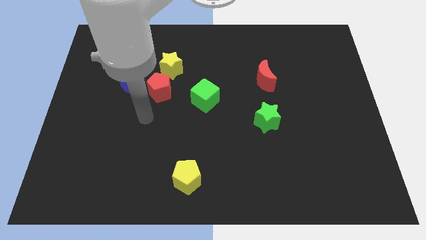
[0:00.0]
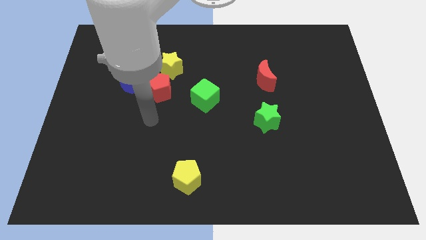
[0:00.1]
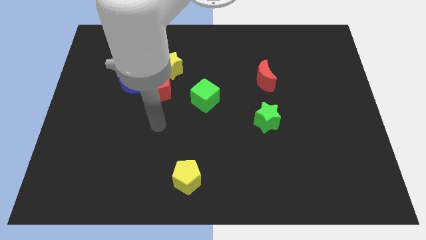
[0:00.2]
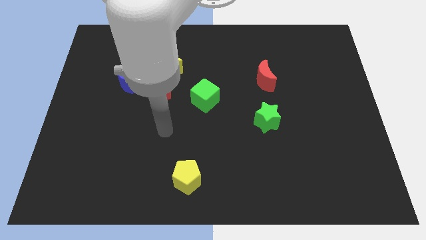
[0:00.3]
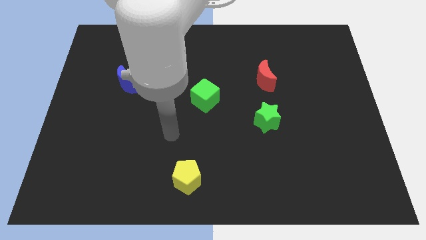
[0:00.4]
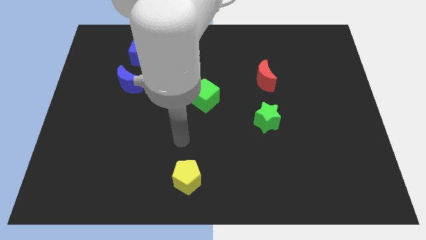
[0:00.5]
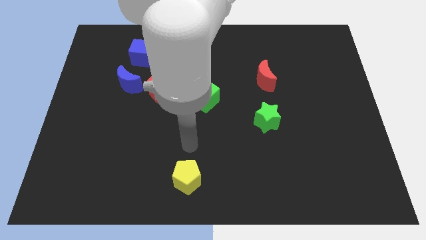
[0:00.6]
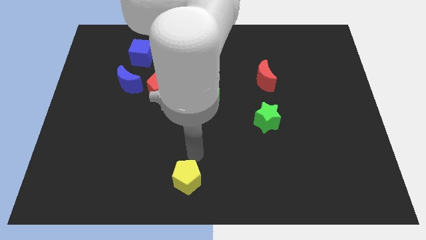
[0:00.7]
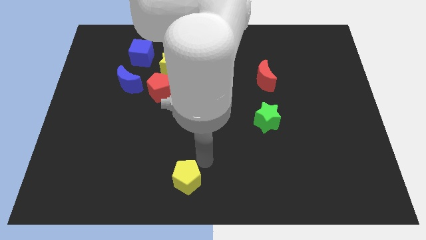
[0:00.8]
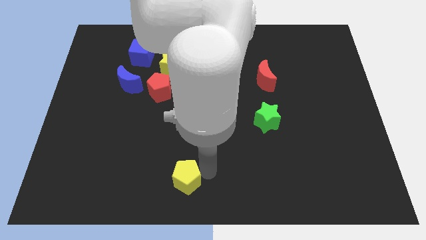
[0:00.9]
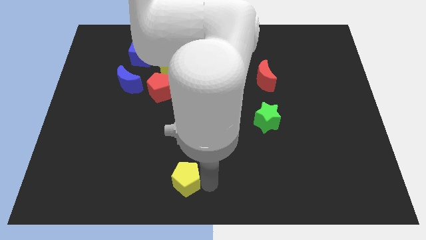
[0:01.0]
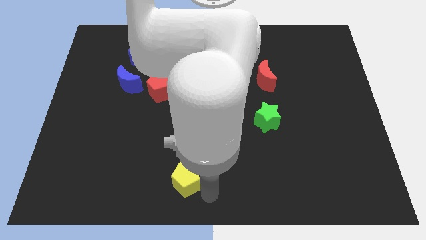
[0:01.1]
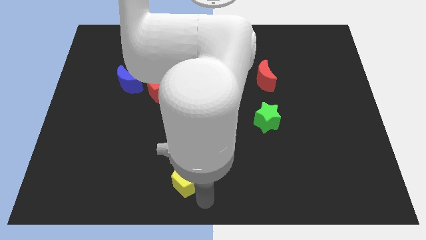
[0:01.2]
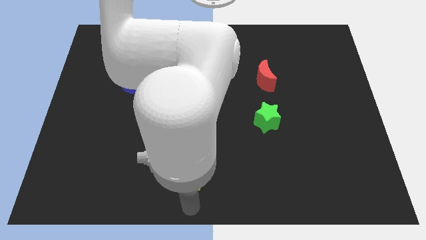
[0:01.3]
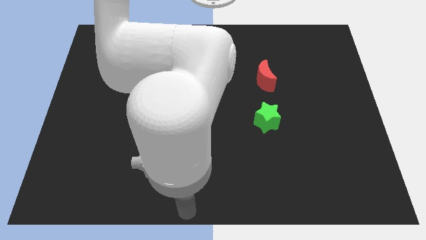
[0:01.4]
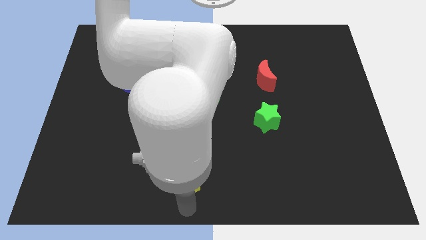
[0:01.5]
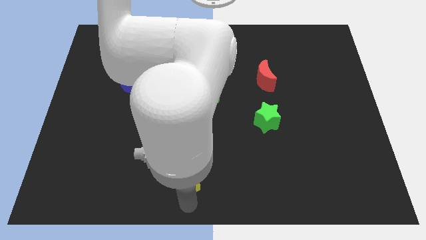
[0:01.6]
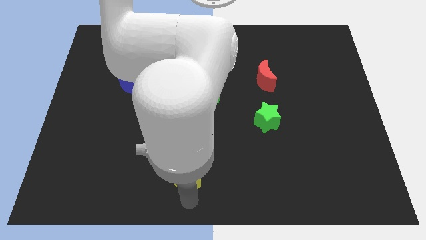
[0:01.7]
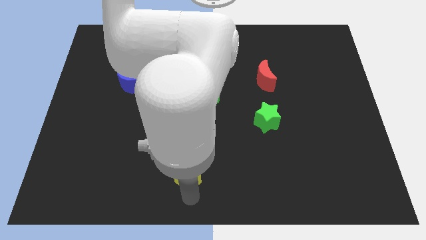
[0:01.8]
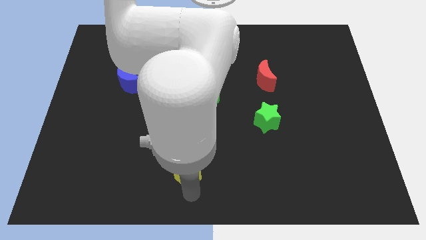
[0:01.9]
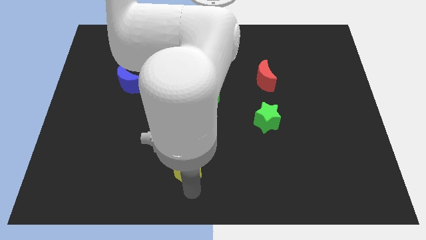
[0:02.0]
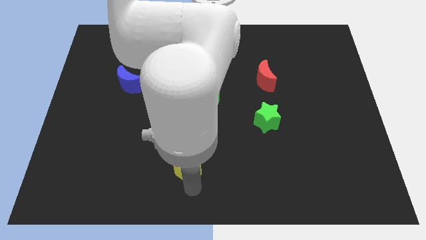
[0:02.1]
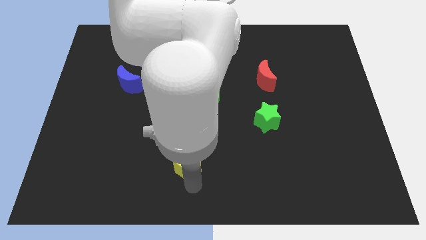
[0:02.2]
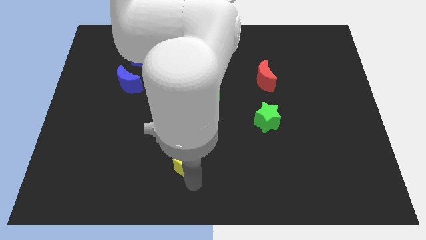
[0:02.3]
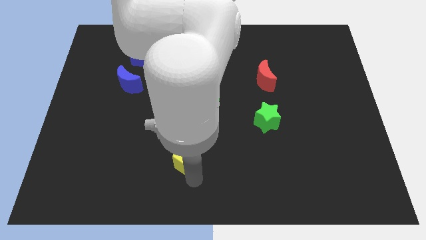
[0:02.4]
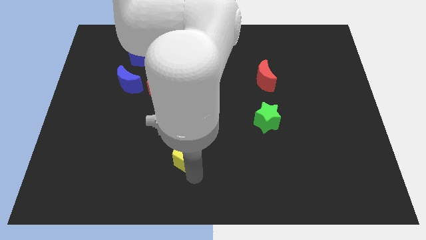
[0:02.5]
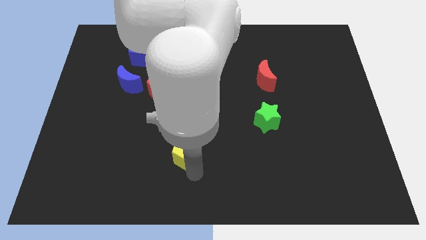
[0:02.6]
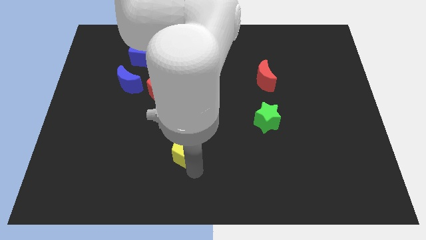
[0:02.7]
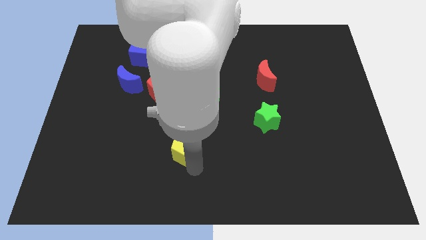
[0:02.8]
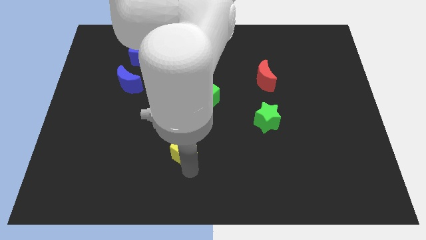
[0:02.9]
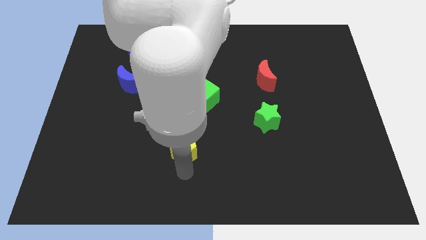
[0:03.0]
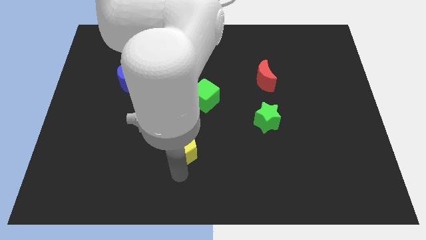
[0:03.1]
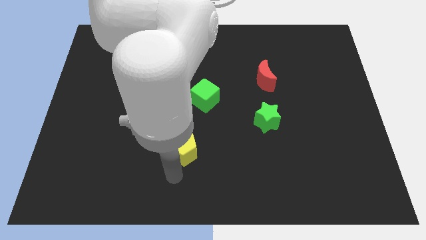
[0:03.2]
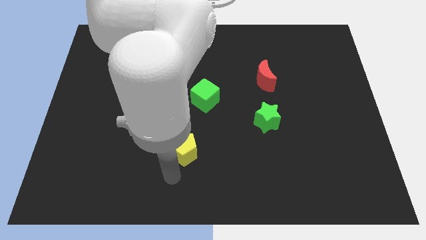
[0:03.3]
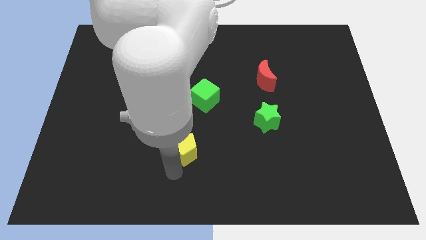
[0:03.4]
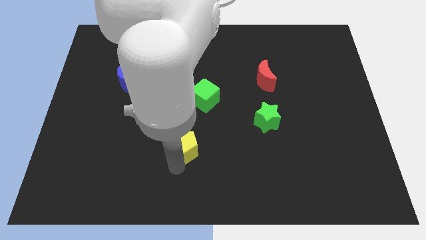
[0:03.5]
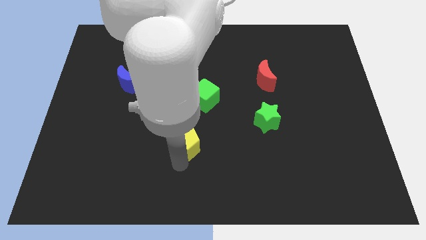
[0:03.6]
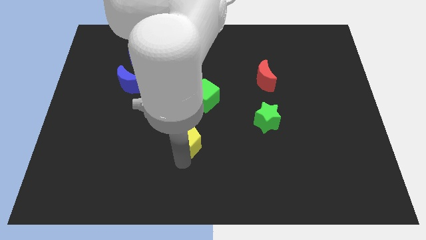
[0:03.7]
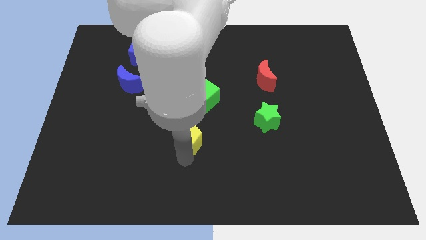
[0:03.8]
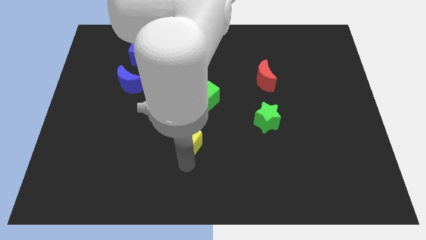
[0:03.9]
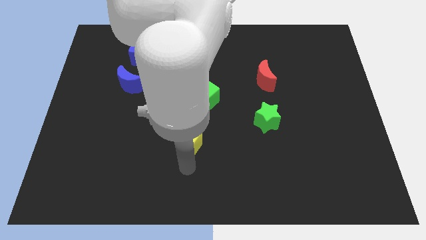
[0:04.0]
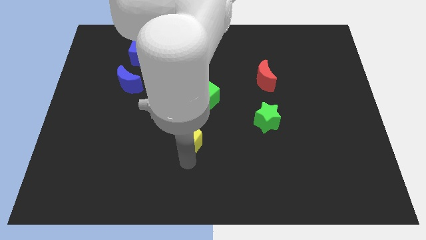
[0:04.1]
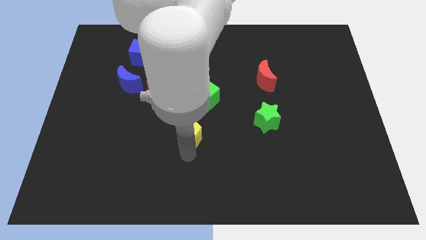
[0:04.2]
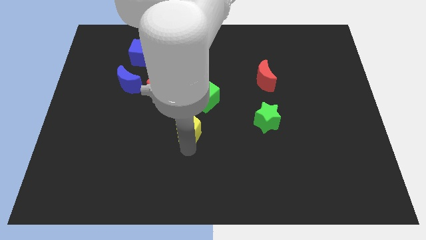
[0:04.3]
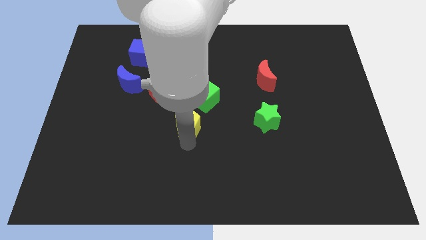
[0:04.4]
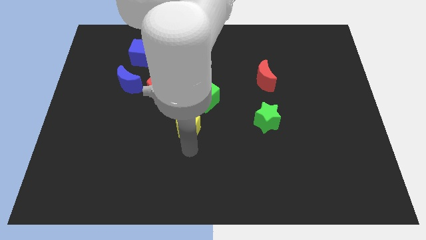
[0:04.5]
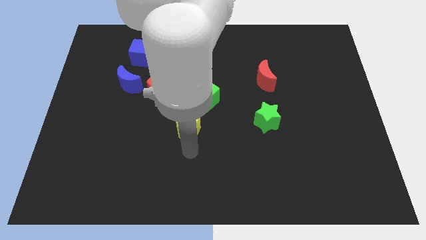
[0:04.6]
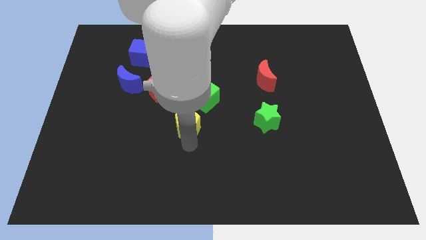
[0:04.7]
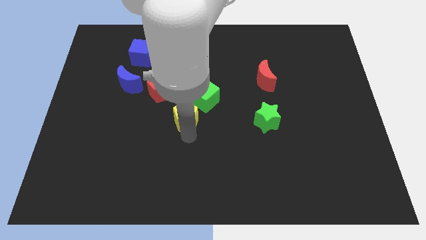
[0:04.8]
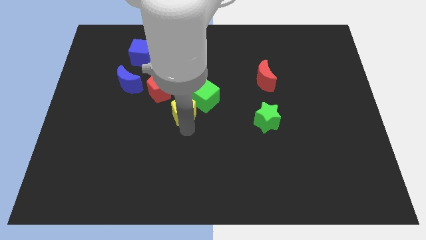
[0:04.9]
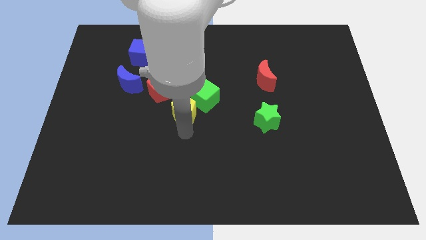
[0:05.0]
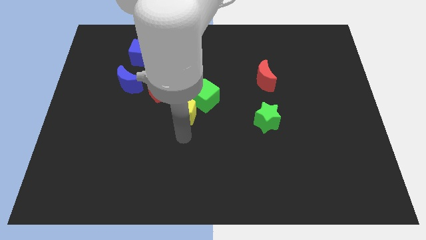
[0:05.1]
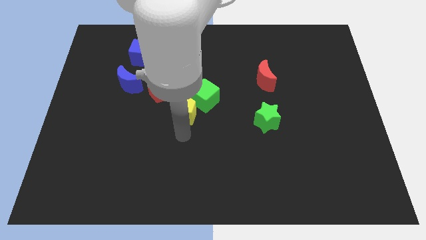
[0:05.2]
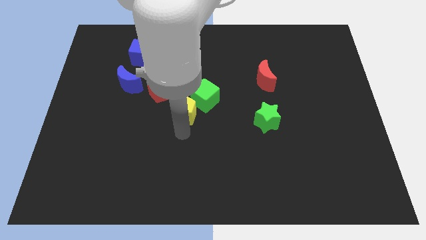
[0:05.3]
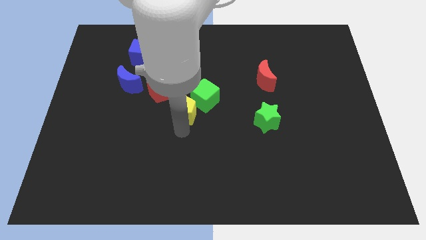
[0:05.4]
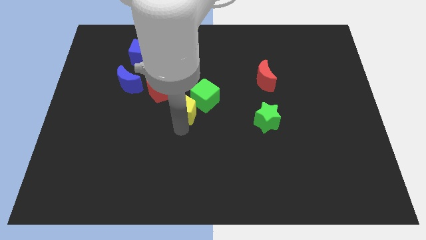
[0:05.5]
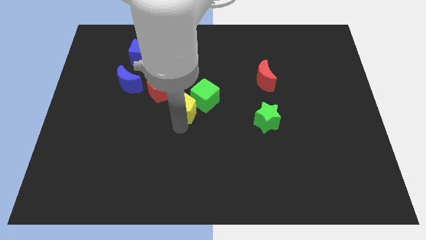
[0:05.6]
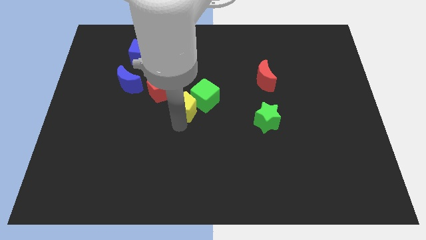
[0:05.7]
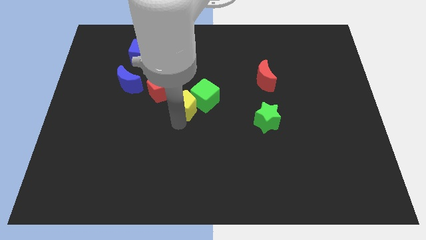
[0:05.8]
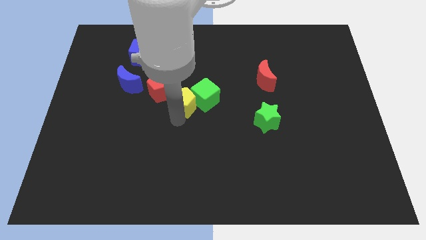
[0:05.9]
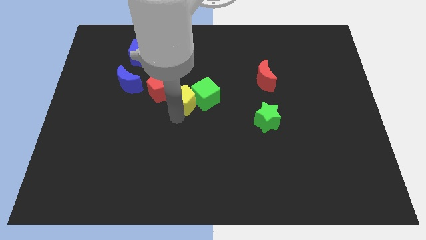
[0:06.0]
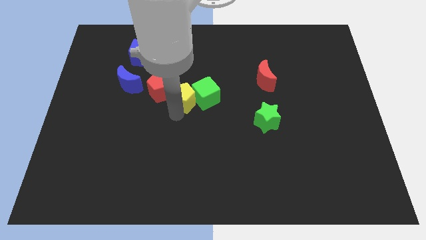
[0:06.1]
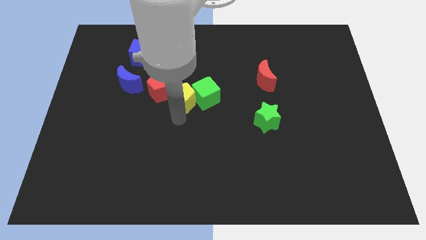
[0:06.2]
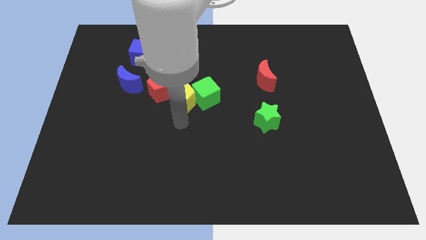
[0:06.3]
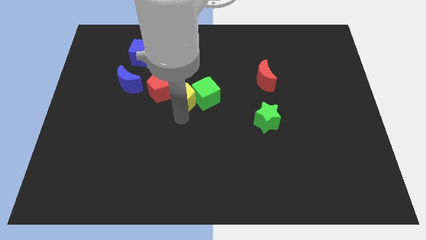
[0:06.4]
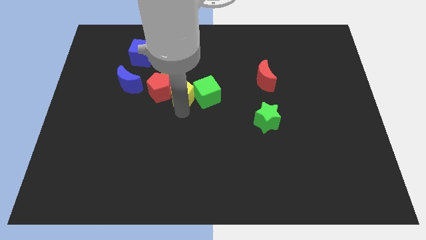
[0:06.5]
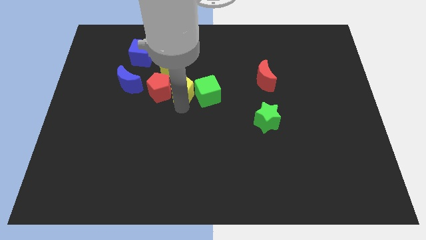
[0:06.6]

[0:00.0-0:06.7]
push the yellow pentagon to the top right side of the red pentagon

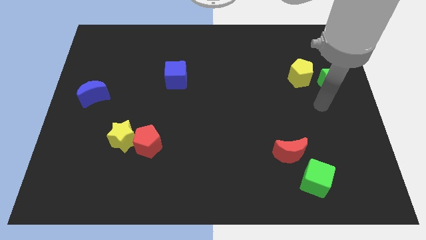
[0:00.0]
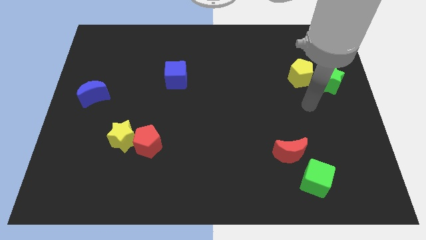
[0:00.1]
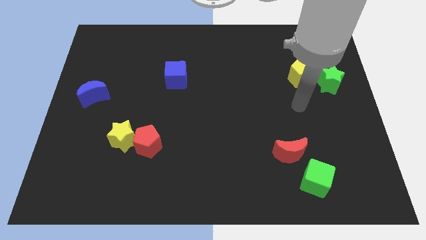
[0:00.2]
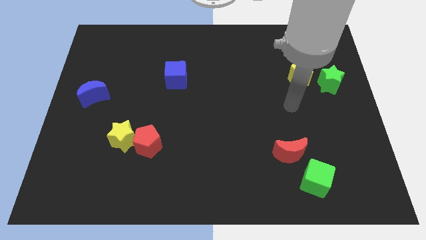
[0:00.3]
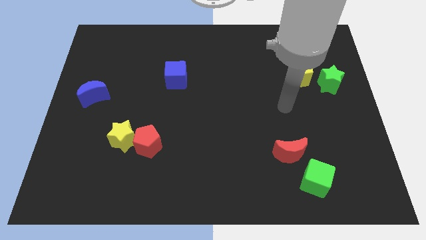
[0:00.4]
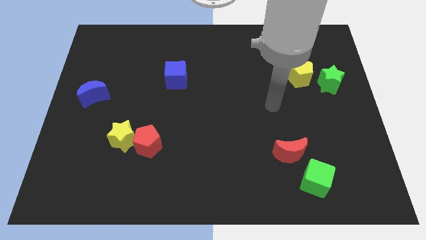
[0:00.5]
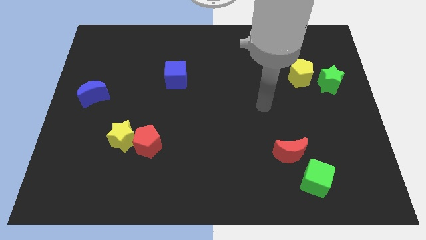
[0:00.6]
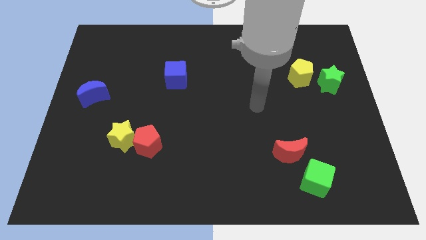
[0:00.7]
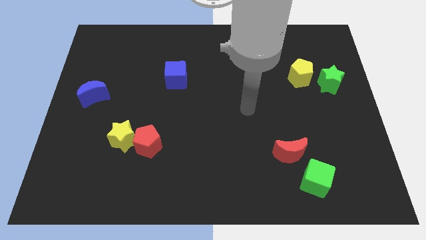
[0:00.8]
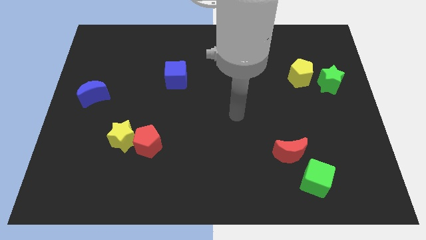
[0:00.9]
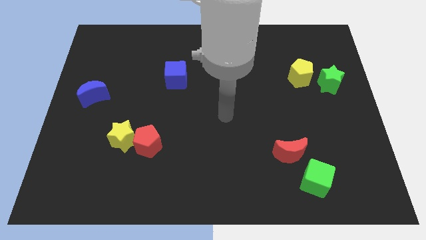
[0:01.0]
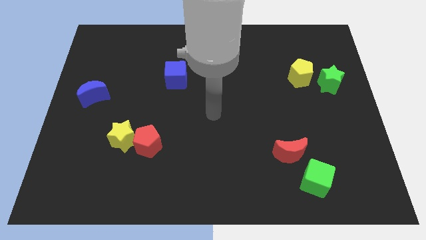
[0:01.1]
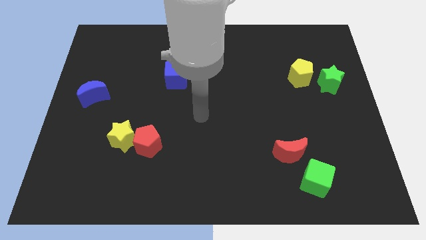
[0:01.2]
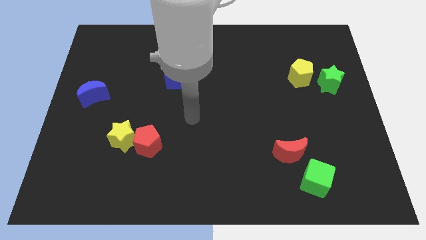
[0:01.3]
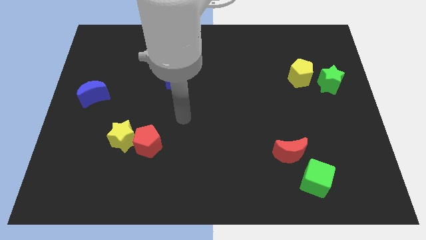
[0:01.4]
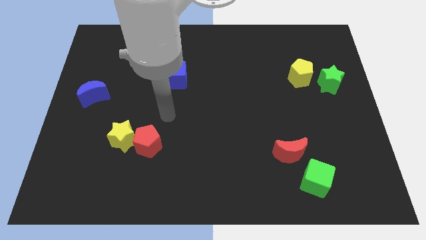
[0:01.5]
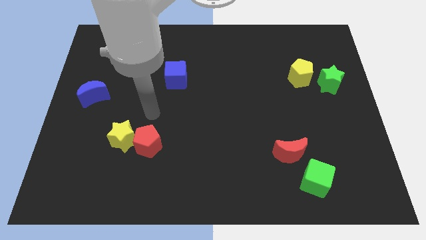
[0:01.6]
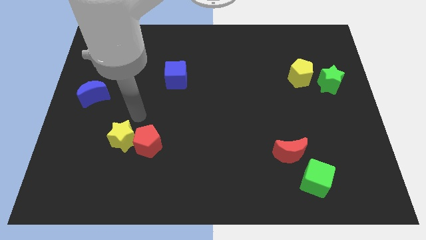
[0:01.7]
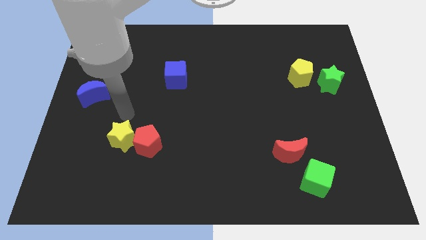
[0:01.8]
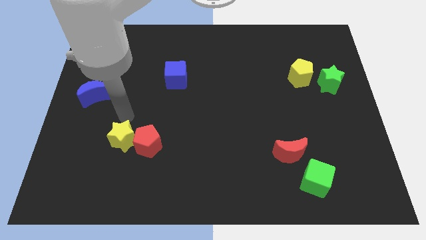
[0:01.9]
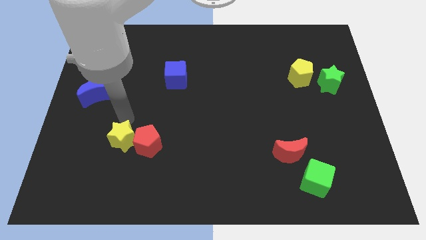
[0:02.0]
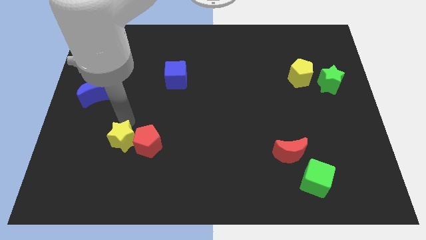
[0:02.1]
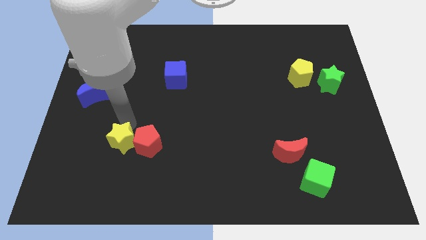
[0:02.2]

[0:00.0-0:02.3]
push the yellow star diagonally down and to the left of the red pentagon
